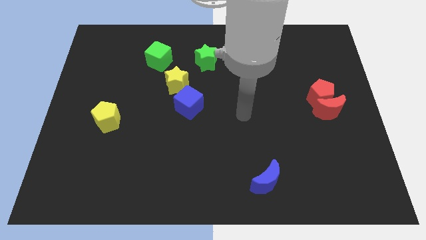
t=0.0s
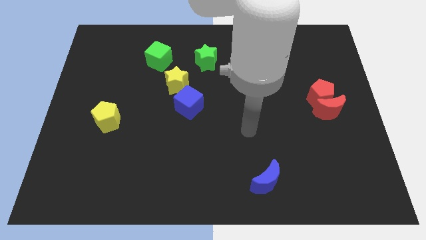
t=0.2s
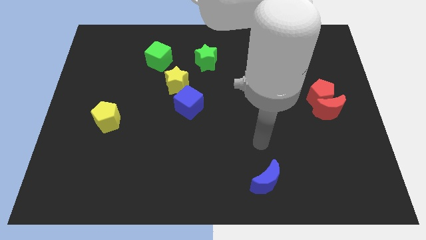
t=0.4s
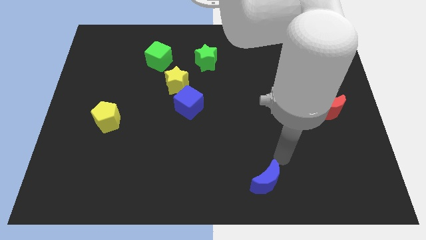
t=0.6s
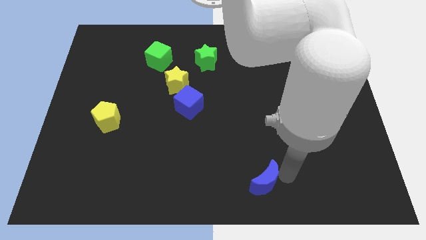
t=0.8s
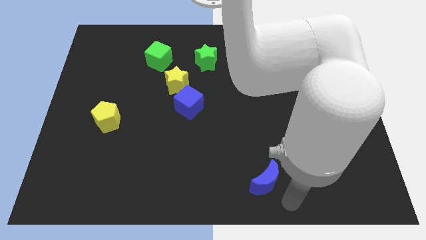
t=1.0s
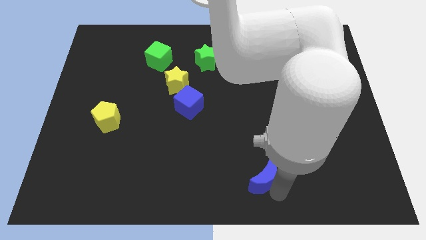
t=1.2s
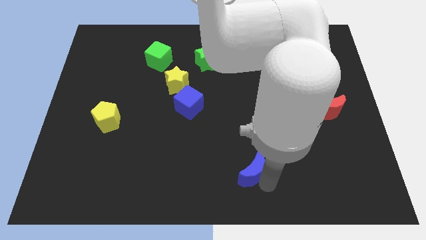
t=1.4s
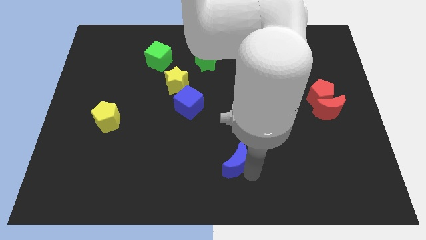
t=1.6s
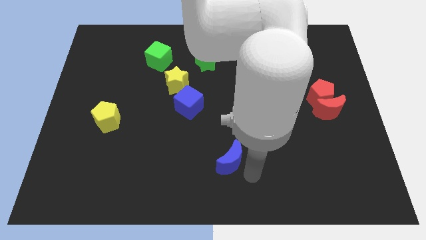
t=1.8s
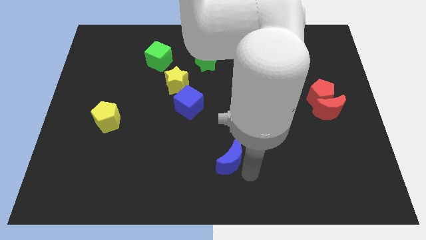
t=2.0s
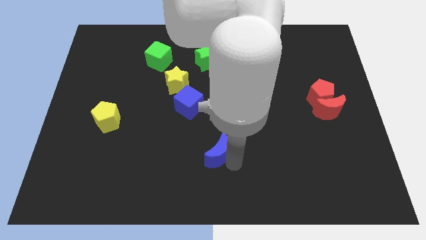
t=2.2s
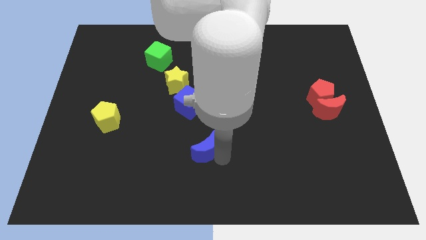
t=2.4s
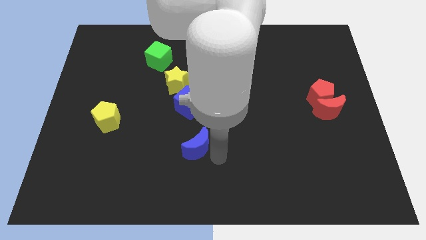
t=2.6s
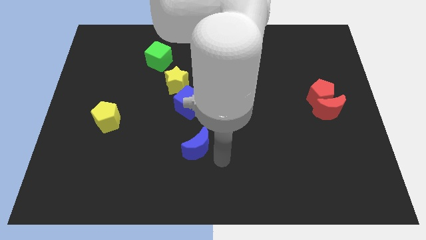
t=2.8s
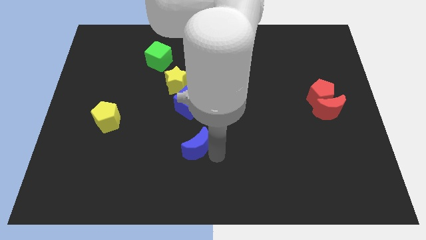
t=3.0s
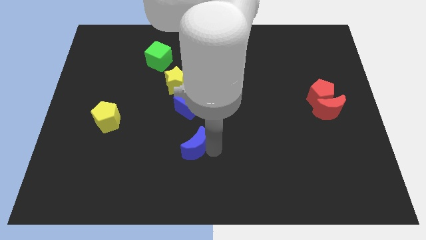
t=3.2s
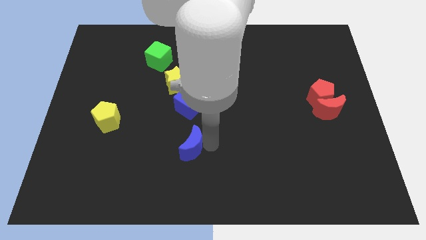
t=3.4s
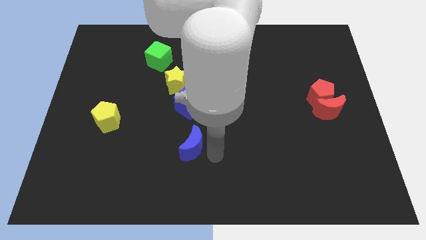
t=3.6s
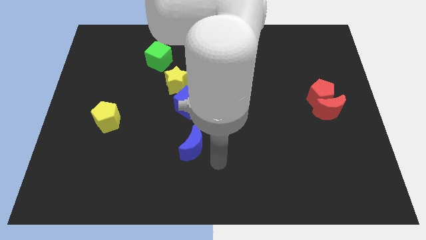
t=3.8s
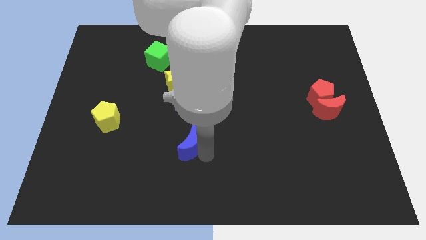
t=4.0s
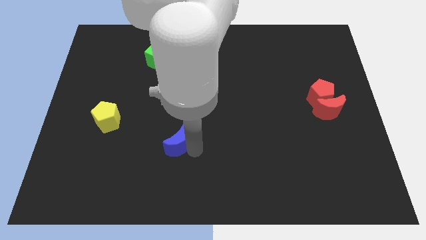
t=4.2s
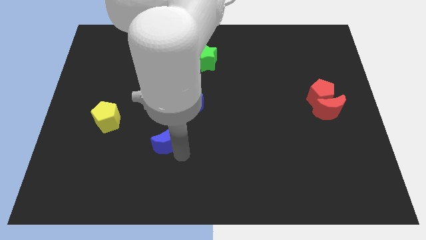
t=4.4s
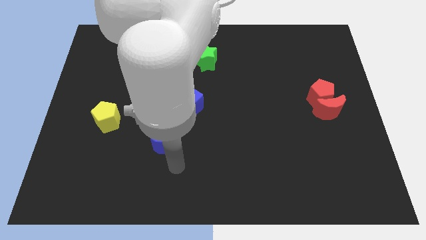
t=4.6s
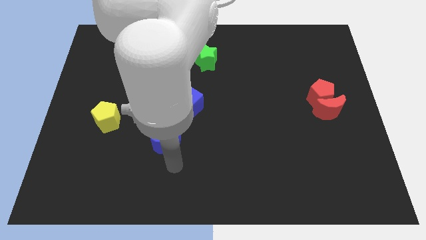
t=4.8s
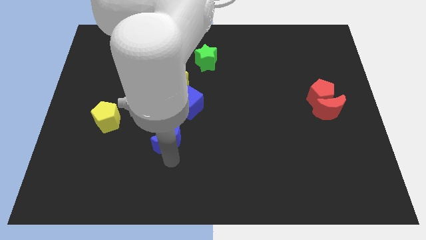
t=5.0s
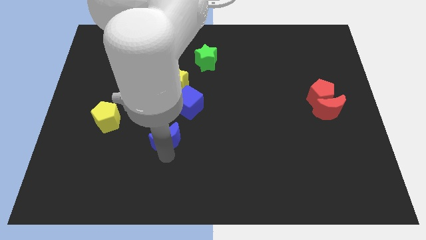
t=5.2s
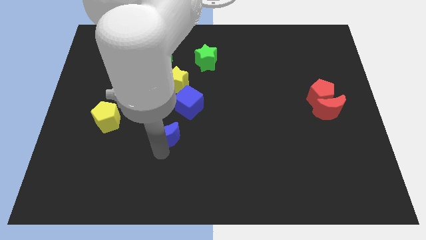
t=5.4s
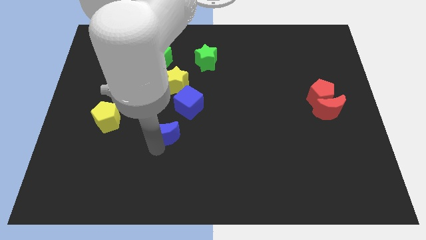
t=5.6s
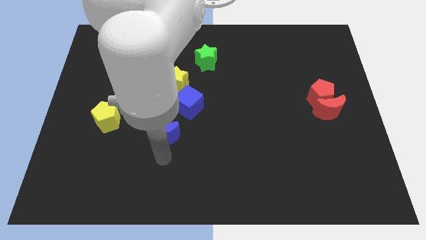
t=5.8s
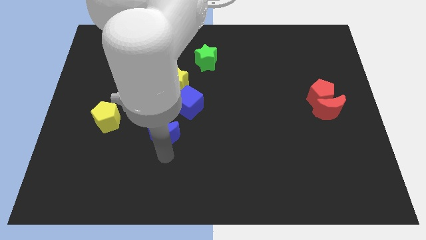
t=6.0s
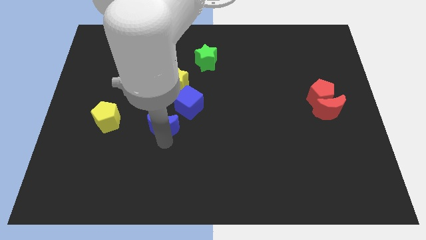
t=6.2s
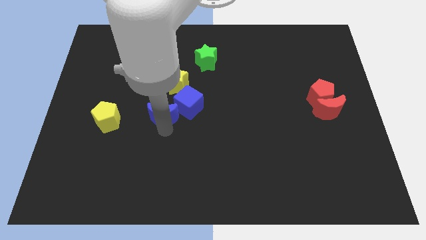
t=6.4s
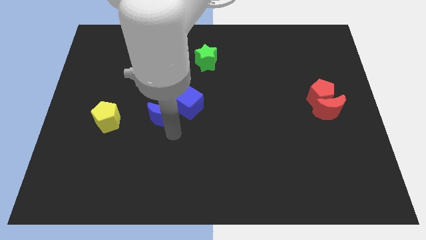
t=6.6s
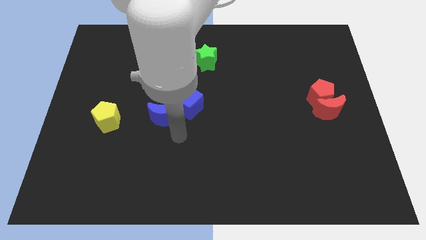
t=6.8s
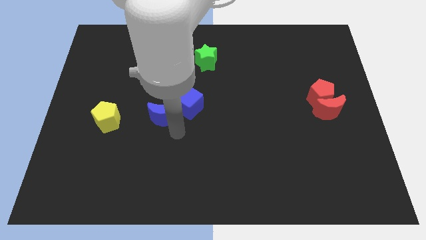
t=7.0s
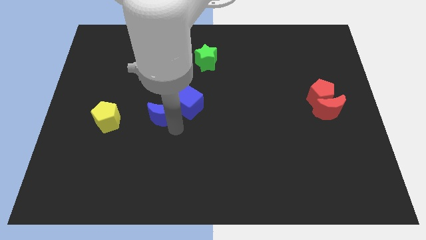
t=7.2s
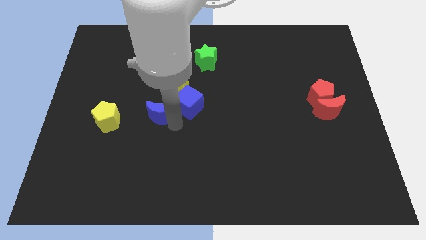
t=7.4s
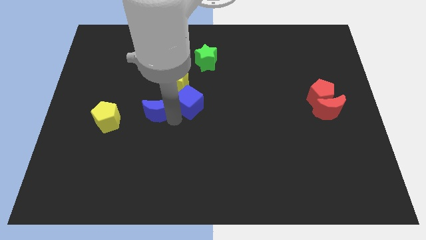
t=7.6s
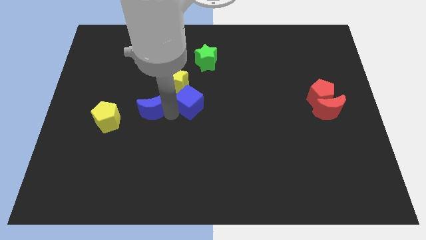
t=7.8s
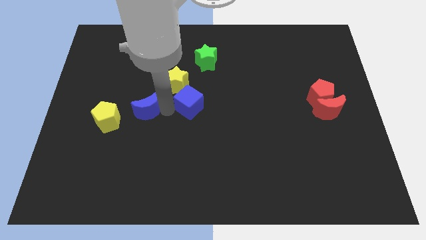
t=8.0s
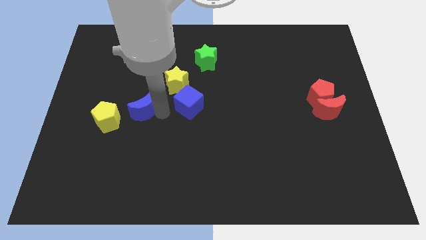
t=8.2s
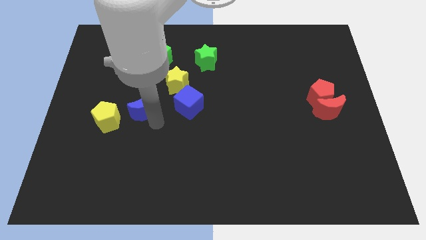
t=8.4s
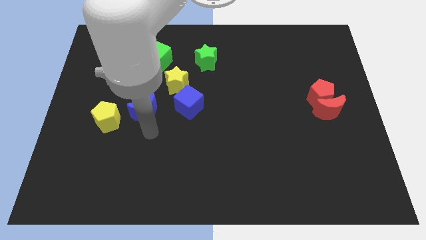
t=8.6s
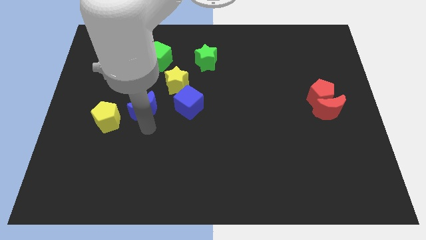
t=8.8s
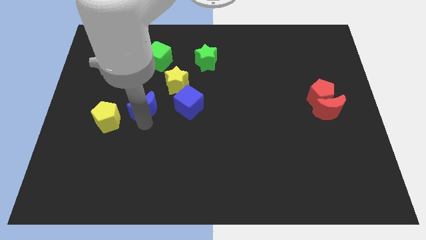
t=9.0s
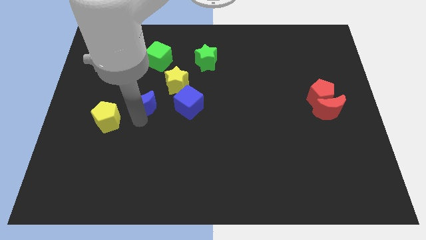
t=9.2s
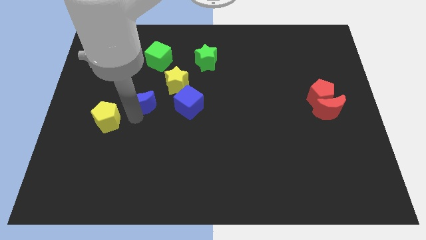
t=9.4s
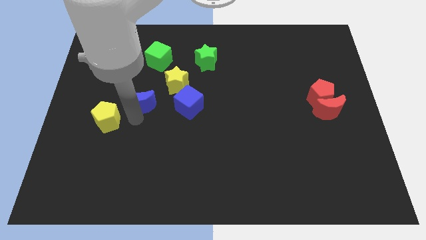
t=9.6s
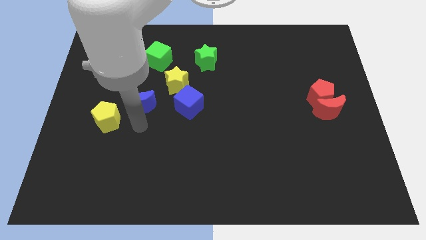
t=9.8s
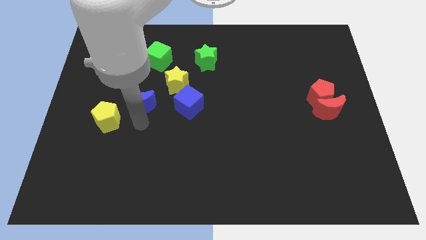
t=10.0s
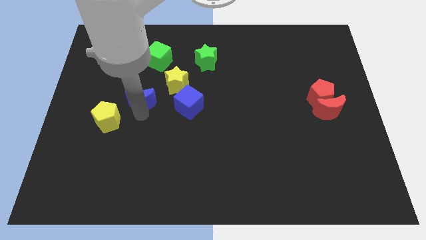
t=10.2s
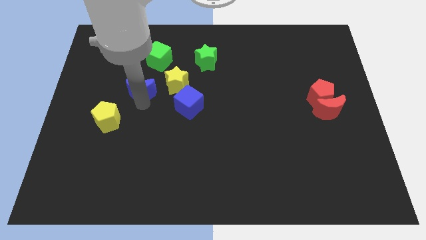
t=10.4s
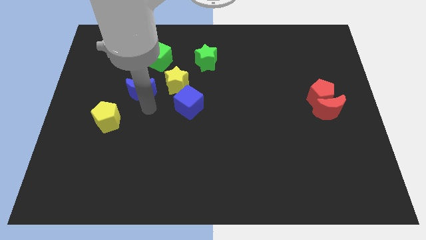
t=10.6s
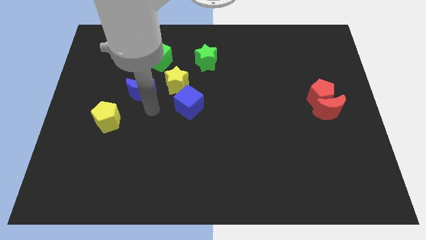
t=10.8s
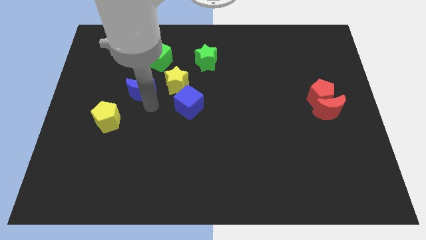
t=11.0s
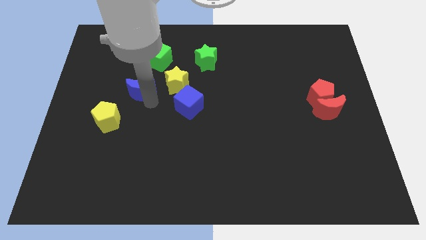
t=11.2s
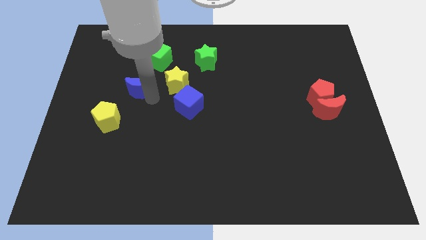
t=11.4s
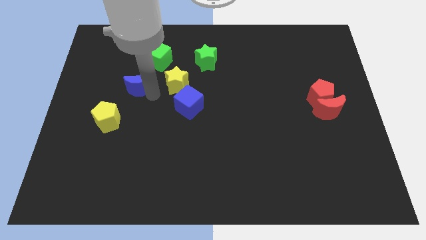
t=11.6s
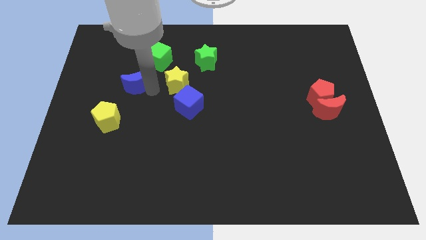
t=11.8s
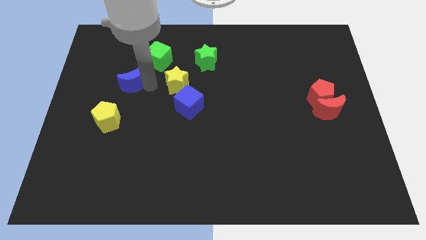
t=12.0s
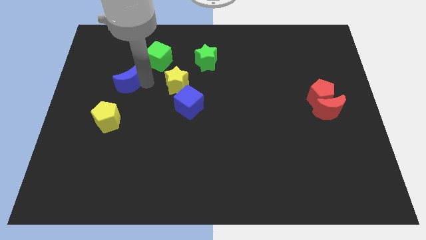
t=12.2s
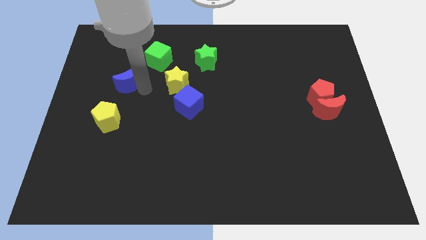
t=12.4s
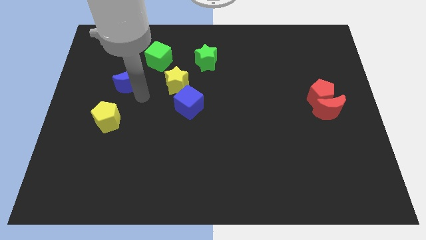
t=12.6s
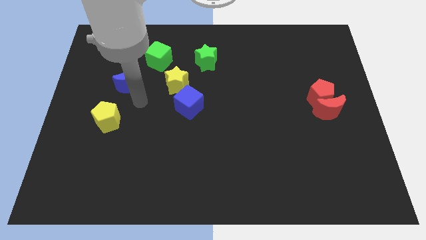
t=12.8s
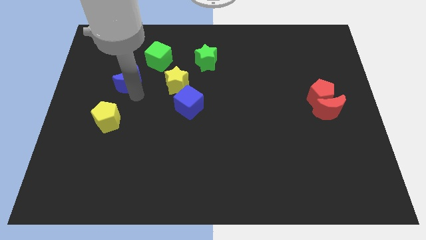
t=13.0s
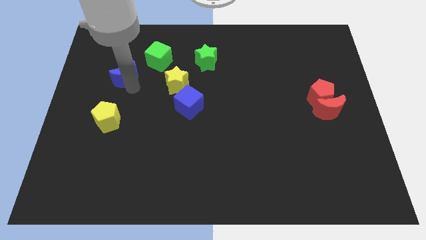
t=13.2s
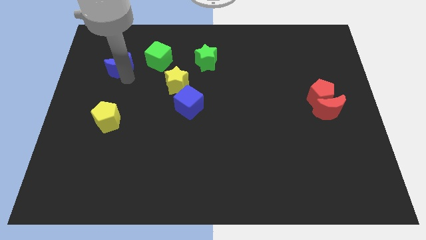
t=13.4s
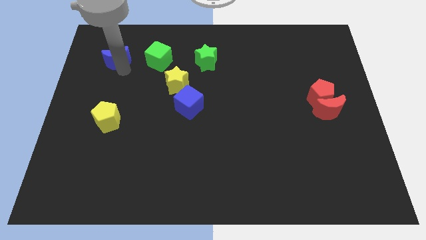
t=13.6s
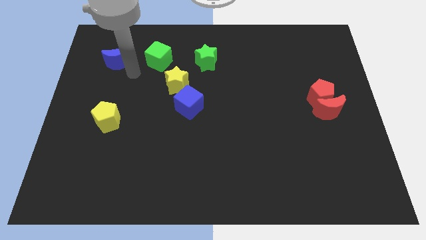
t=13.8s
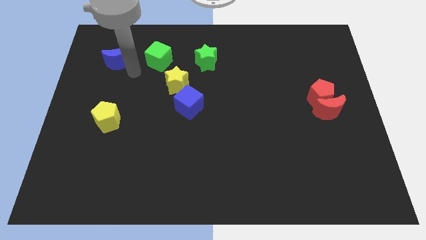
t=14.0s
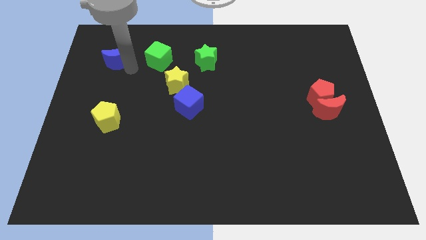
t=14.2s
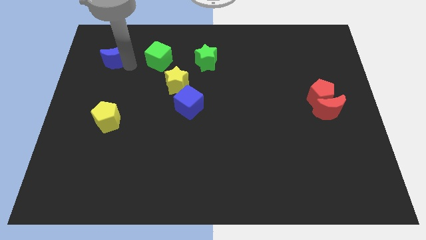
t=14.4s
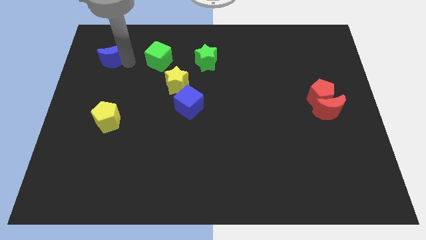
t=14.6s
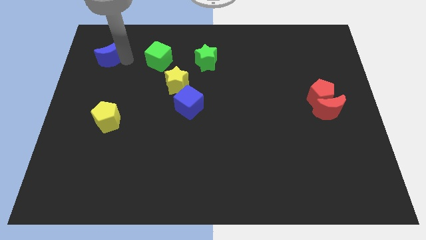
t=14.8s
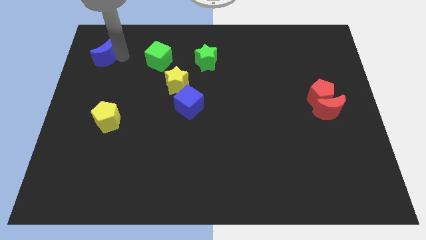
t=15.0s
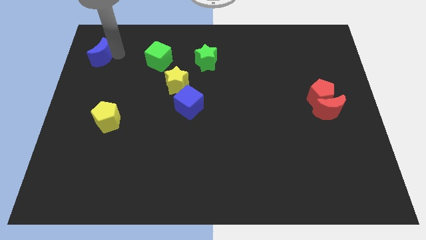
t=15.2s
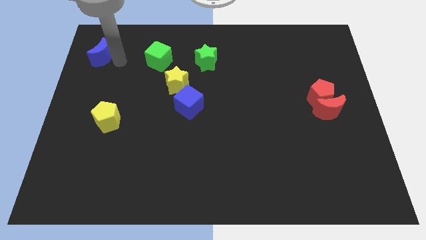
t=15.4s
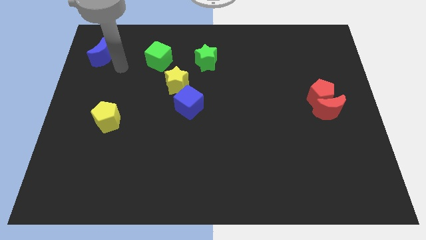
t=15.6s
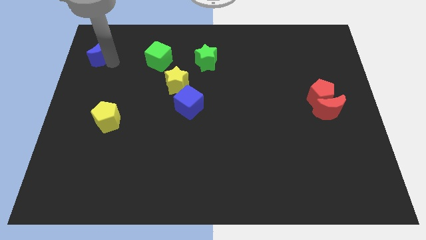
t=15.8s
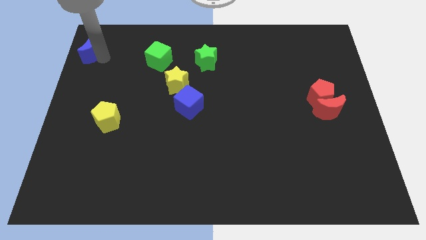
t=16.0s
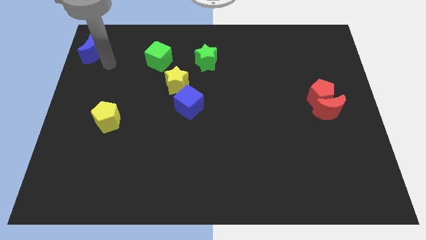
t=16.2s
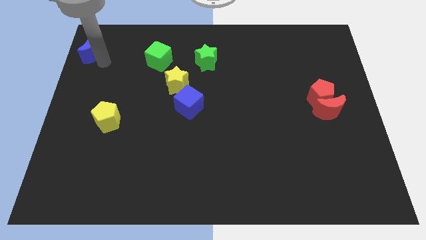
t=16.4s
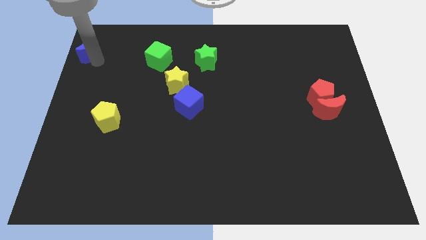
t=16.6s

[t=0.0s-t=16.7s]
push the blue moon to the top left of the board
